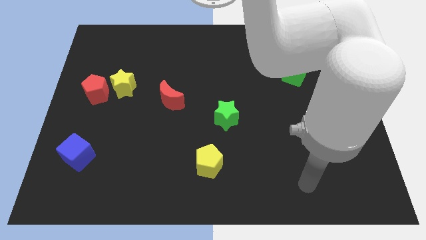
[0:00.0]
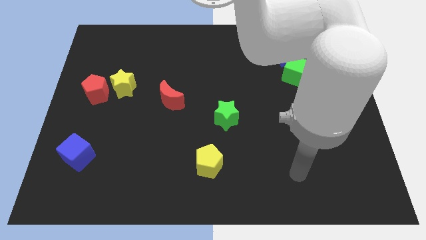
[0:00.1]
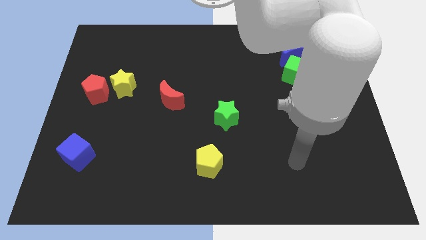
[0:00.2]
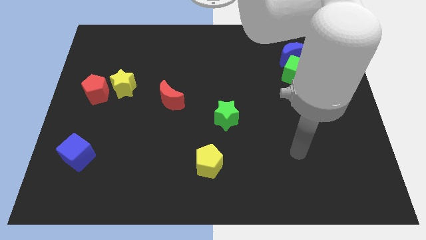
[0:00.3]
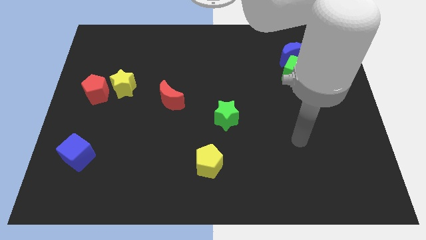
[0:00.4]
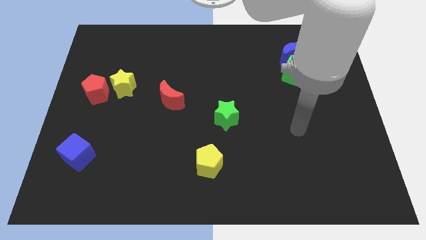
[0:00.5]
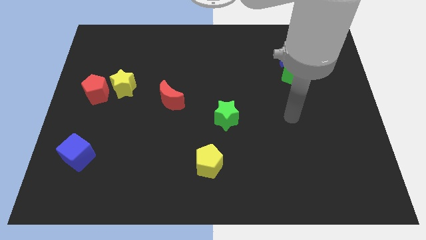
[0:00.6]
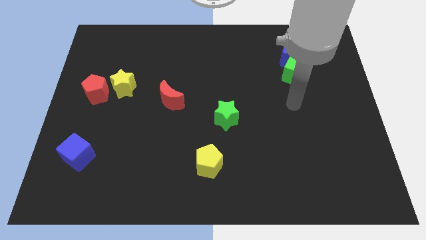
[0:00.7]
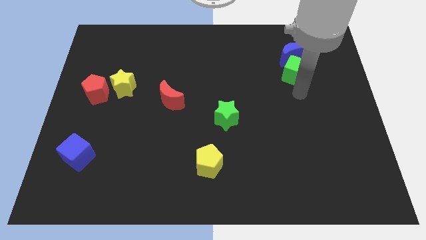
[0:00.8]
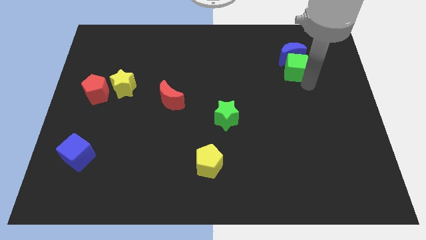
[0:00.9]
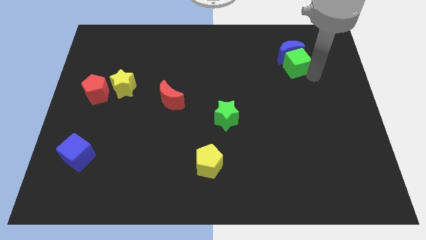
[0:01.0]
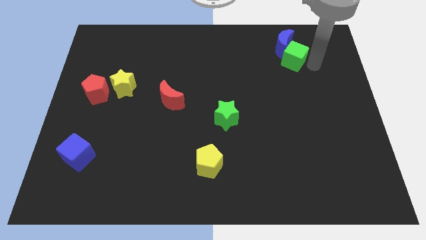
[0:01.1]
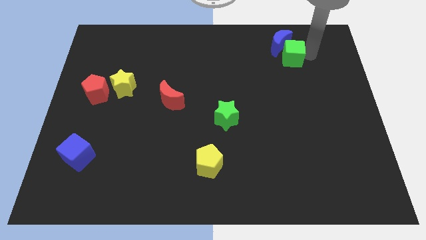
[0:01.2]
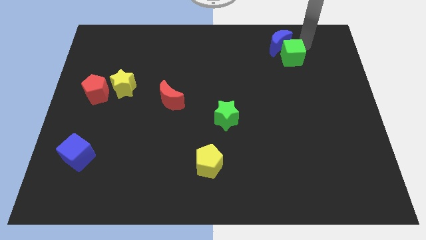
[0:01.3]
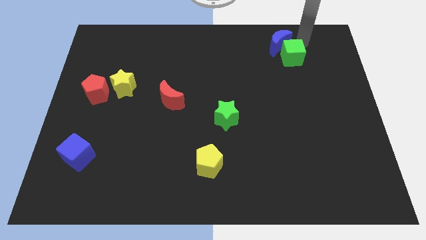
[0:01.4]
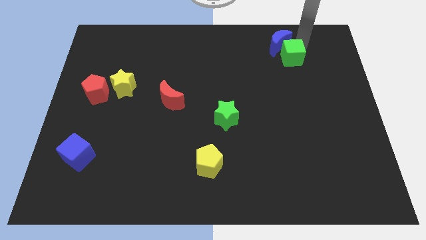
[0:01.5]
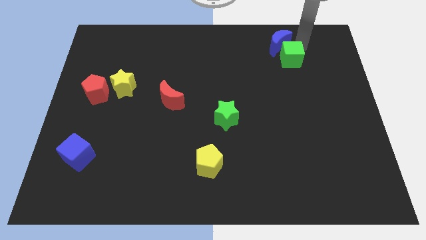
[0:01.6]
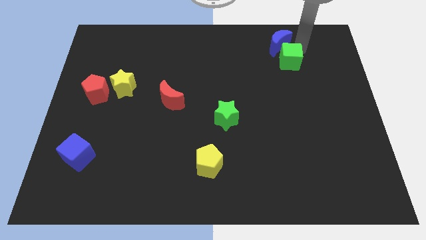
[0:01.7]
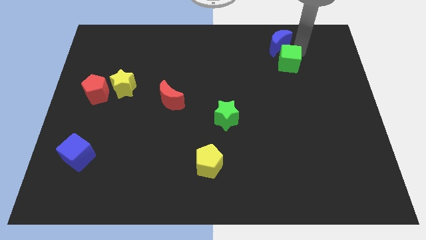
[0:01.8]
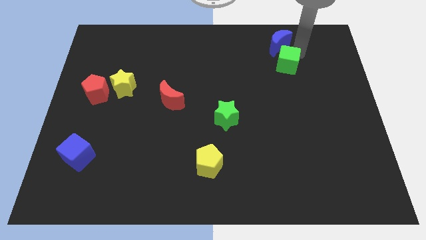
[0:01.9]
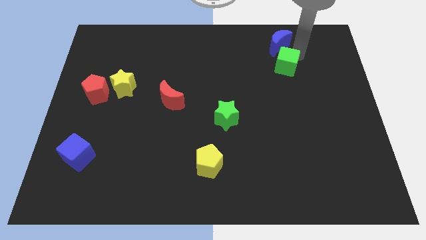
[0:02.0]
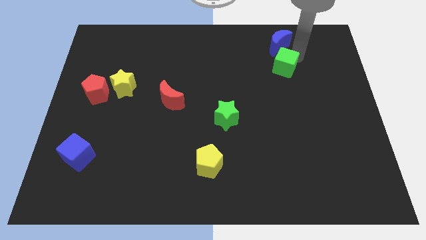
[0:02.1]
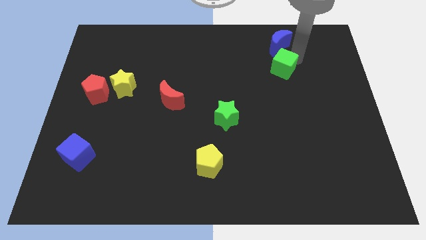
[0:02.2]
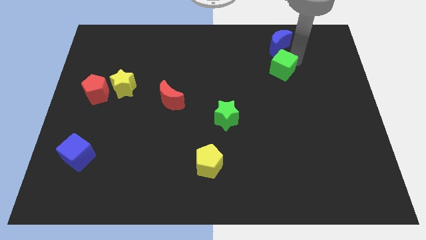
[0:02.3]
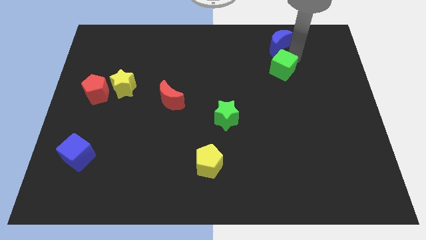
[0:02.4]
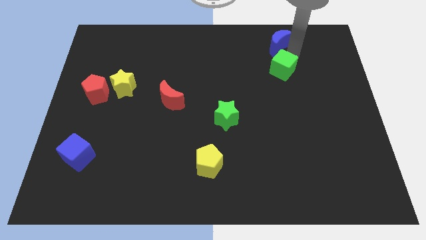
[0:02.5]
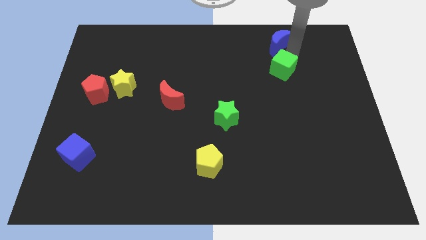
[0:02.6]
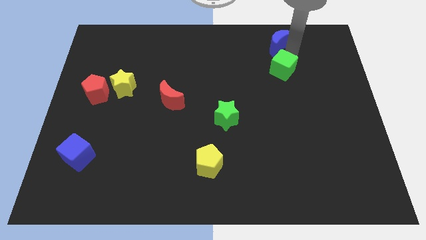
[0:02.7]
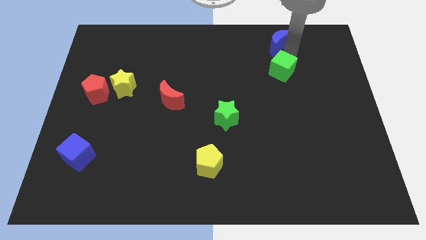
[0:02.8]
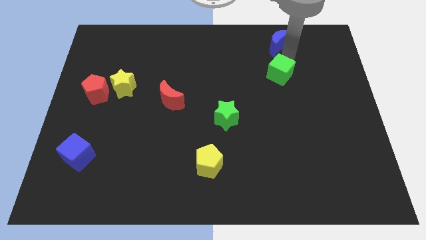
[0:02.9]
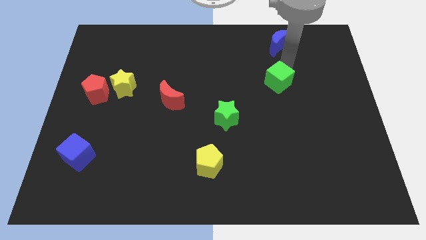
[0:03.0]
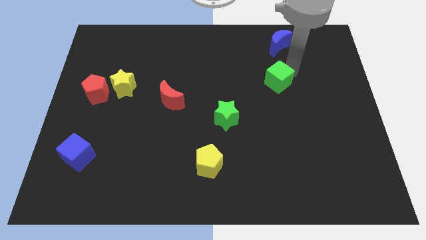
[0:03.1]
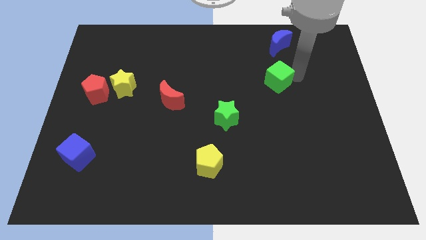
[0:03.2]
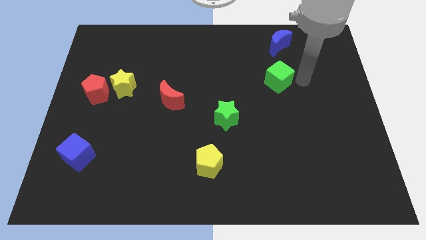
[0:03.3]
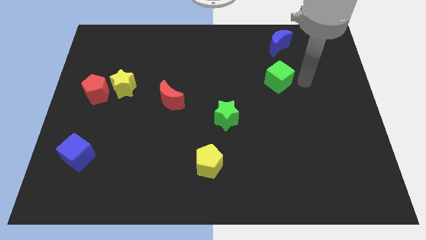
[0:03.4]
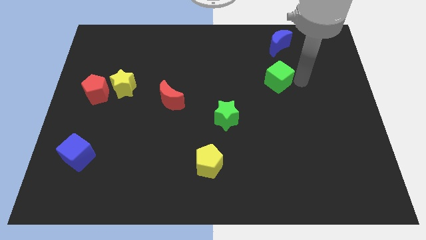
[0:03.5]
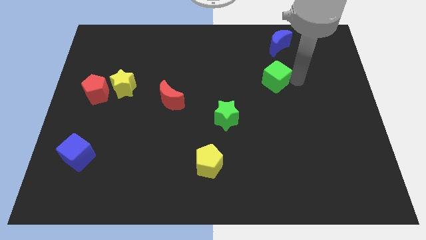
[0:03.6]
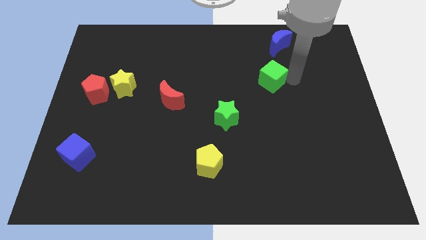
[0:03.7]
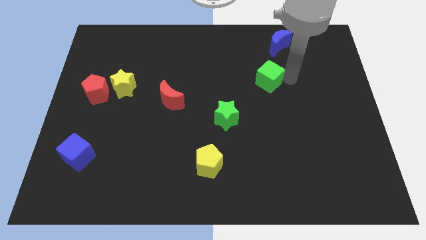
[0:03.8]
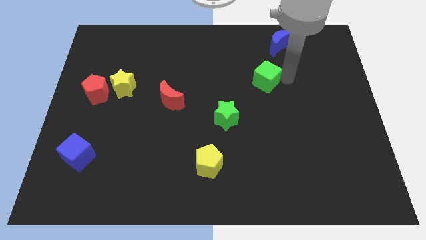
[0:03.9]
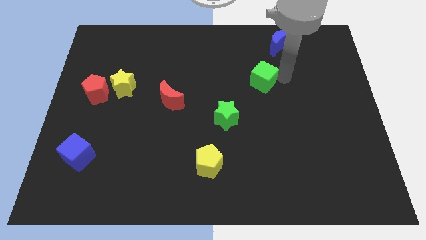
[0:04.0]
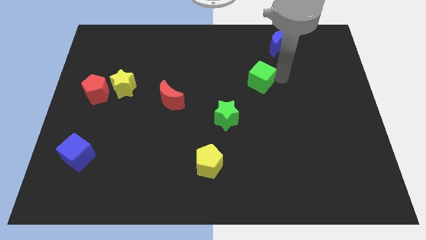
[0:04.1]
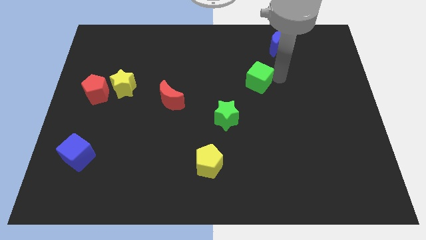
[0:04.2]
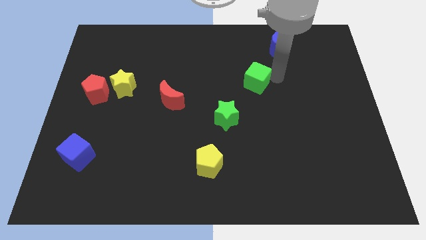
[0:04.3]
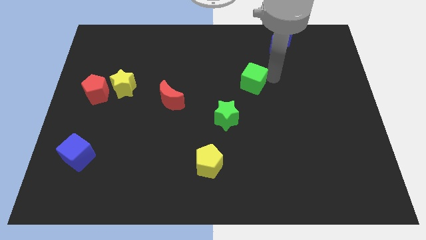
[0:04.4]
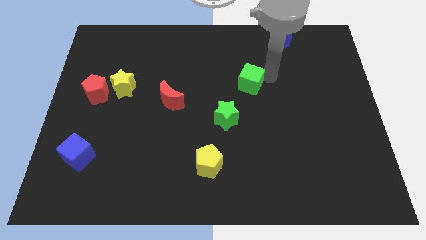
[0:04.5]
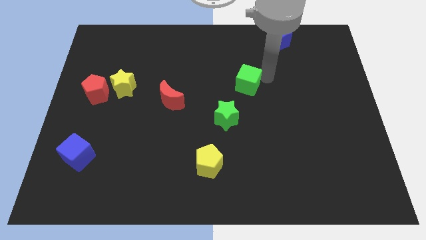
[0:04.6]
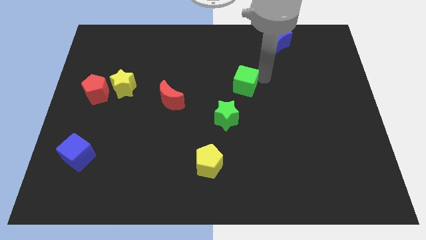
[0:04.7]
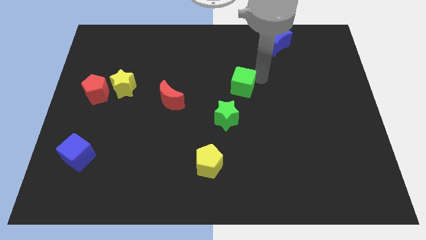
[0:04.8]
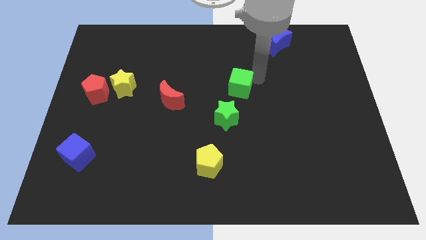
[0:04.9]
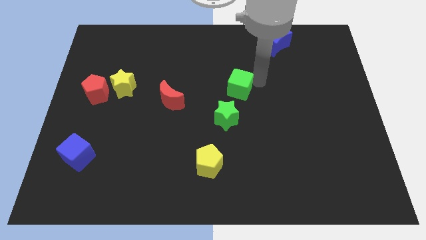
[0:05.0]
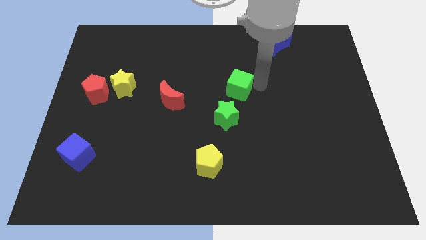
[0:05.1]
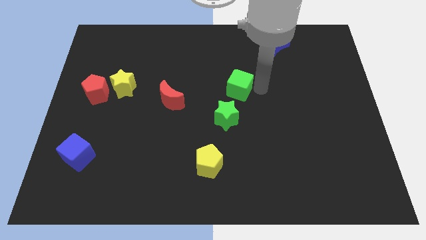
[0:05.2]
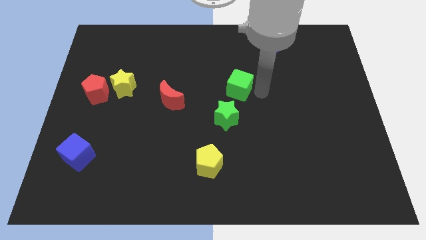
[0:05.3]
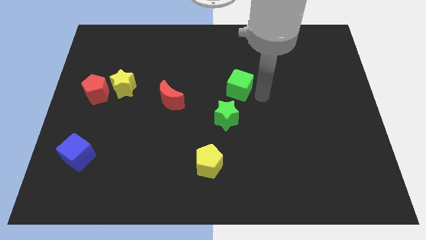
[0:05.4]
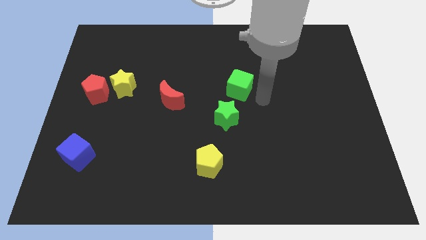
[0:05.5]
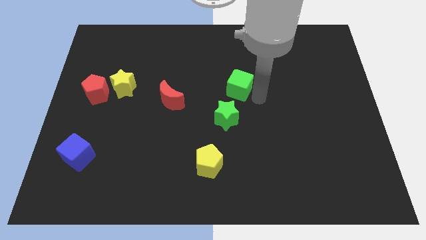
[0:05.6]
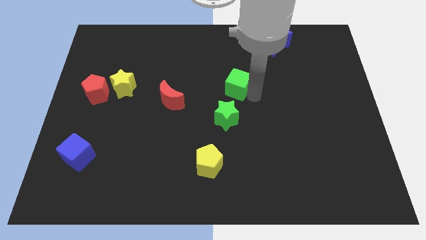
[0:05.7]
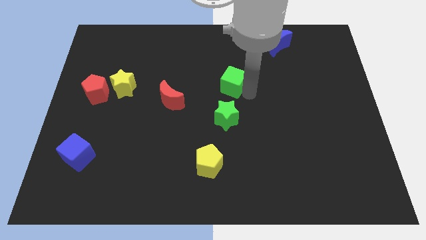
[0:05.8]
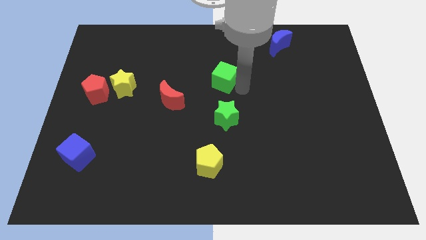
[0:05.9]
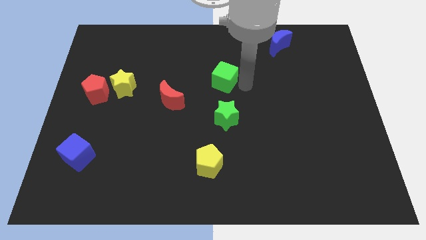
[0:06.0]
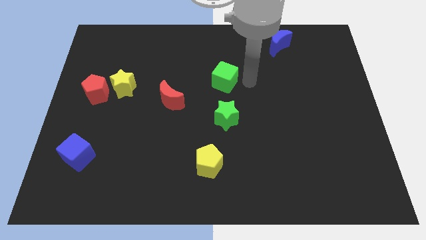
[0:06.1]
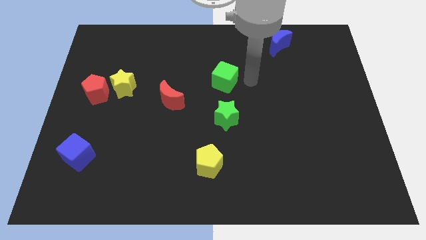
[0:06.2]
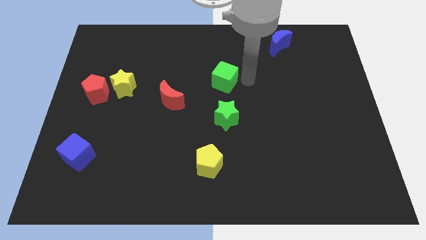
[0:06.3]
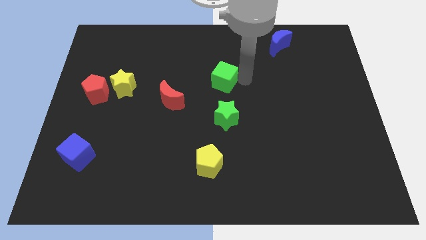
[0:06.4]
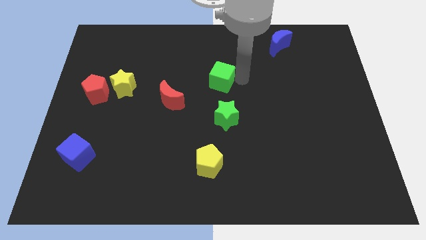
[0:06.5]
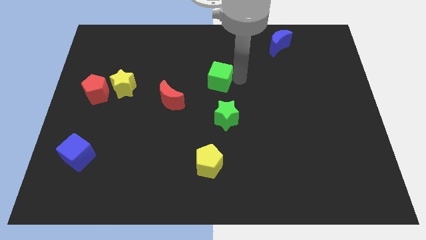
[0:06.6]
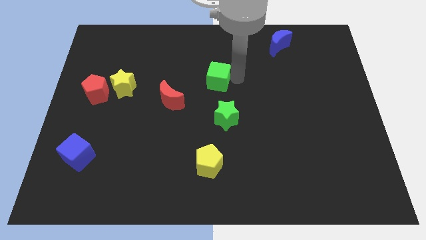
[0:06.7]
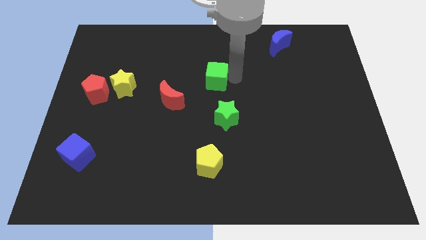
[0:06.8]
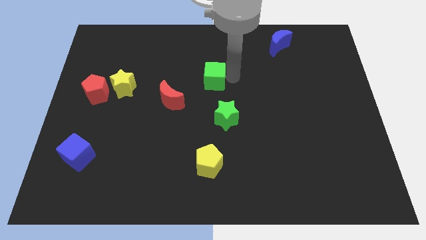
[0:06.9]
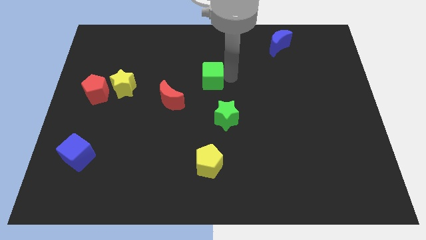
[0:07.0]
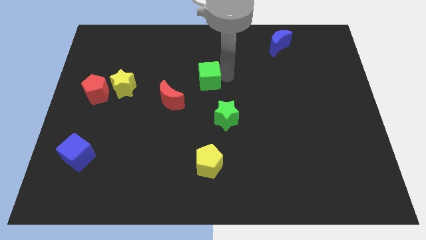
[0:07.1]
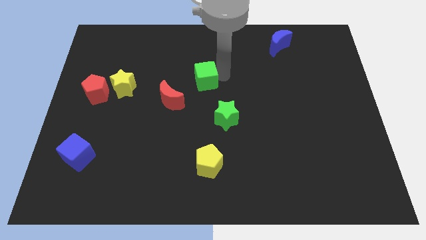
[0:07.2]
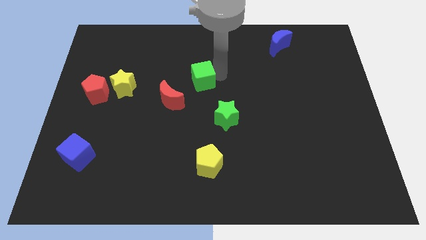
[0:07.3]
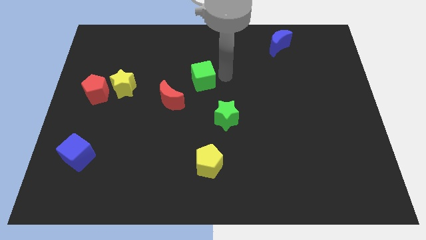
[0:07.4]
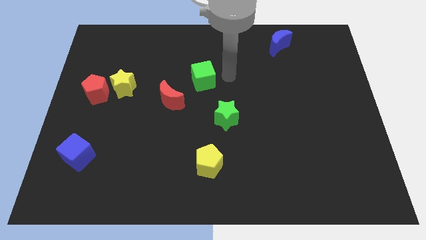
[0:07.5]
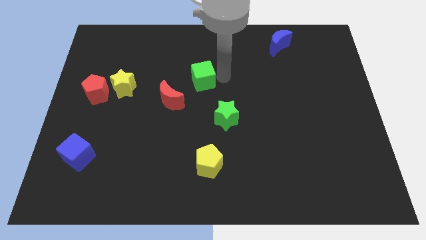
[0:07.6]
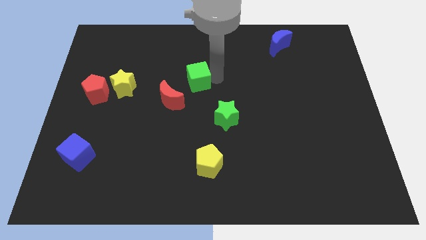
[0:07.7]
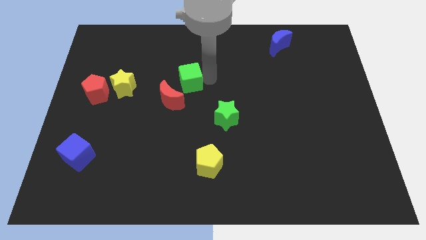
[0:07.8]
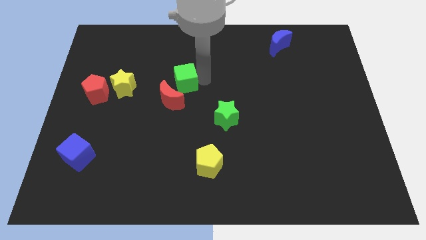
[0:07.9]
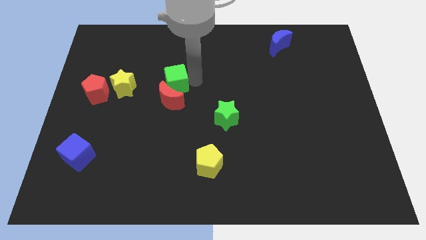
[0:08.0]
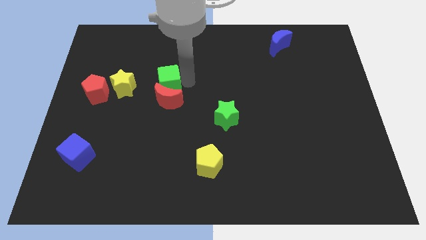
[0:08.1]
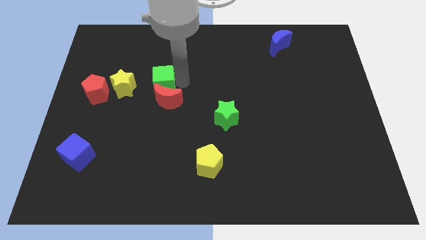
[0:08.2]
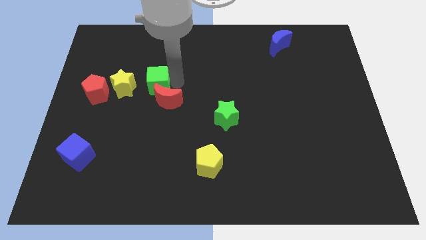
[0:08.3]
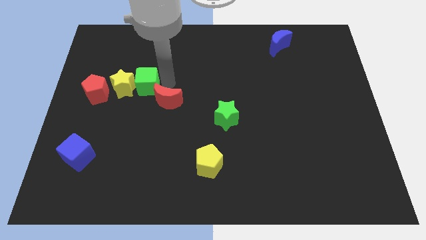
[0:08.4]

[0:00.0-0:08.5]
slide the green cube towards the yellow star
